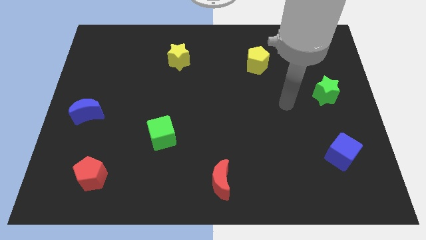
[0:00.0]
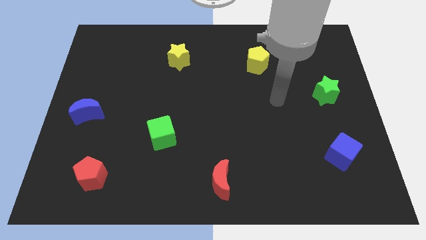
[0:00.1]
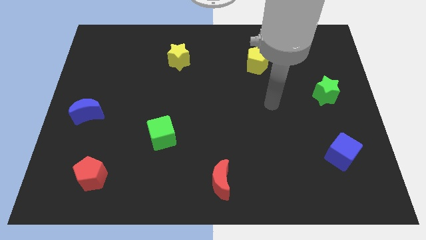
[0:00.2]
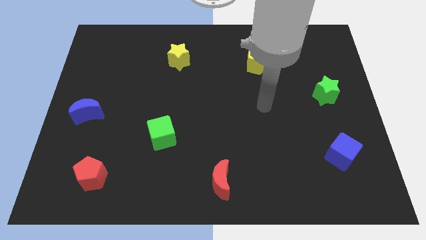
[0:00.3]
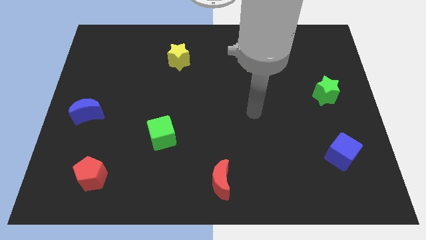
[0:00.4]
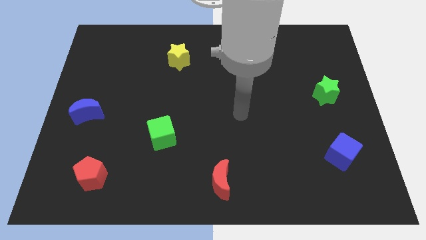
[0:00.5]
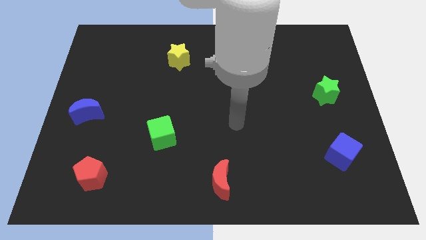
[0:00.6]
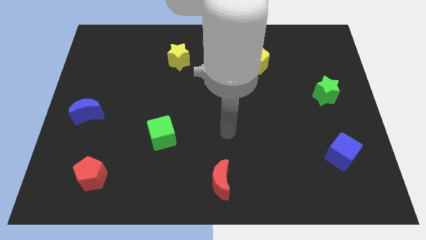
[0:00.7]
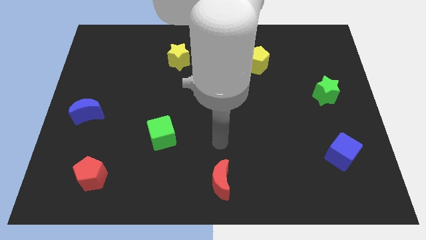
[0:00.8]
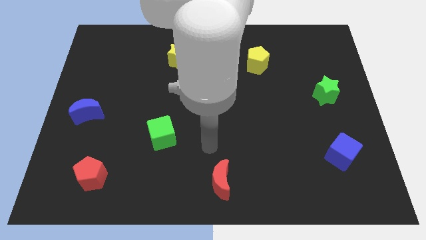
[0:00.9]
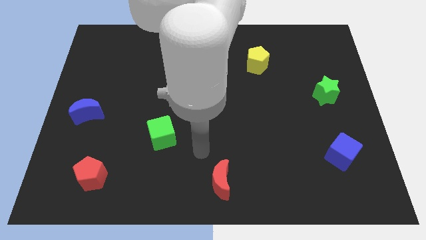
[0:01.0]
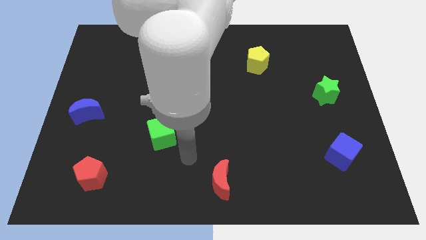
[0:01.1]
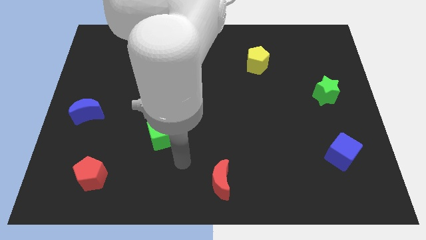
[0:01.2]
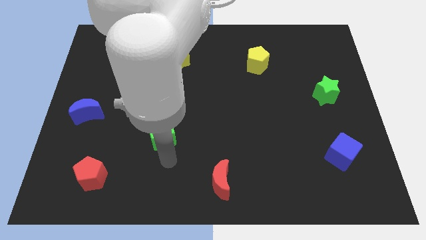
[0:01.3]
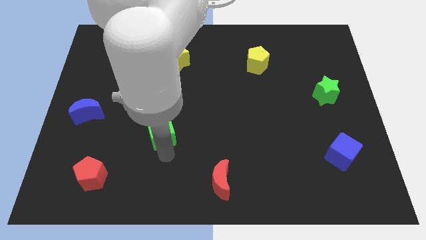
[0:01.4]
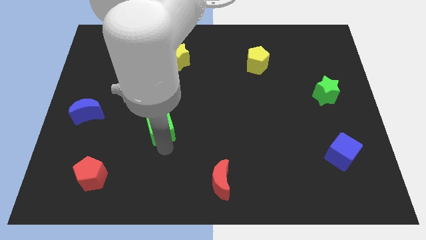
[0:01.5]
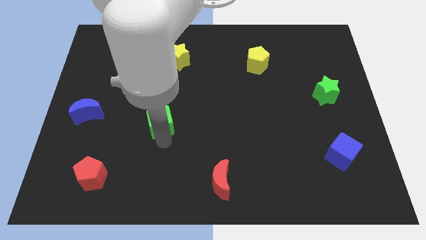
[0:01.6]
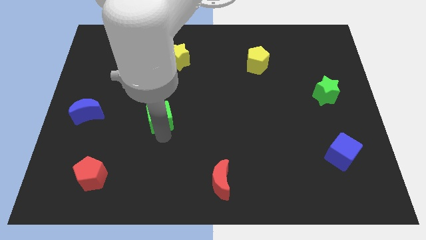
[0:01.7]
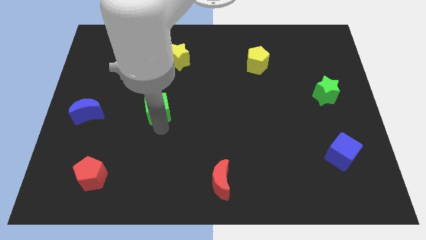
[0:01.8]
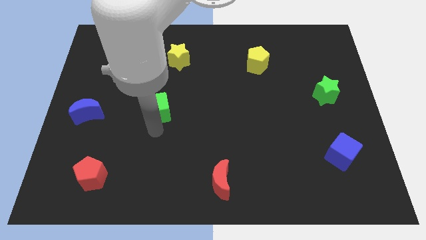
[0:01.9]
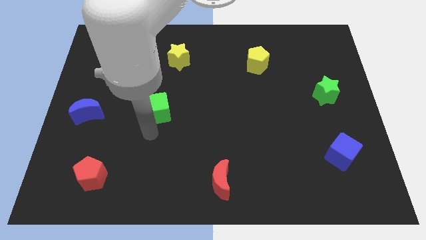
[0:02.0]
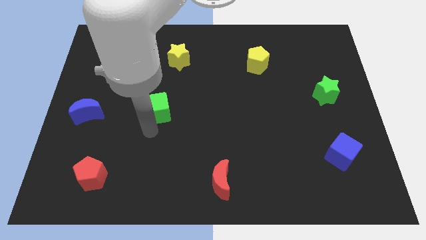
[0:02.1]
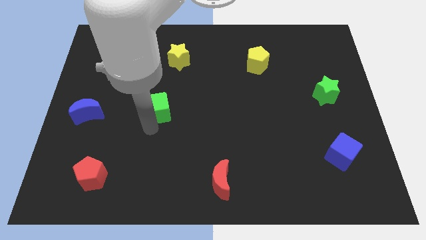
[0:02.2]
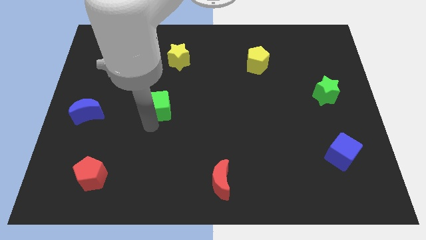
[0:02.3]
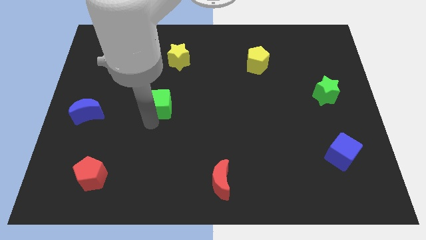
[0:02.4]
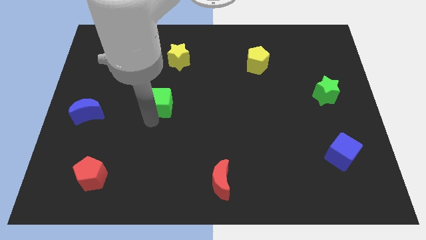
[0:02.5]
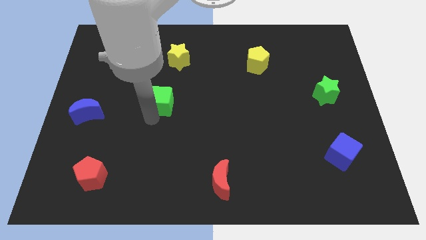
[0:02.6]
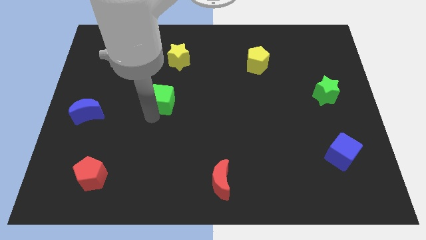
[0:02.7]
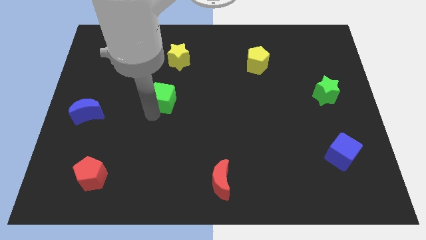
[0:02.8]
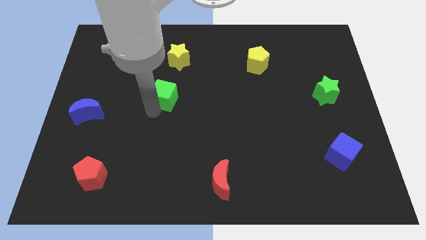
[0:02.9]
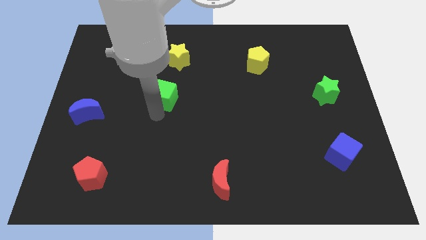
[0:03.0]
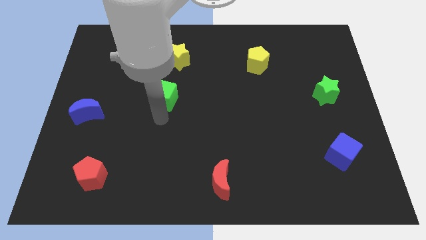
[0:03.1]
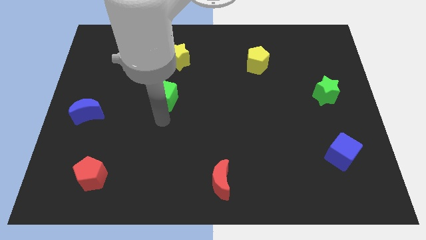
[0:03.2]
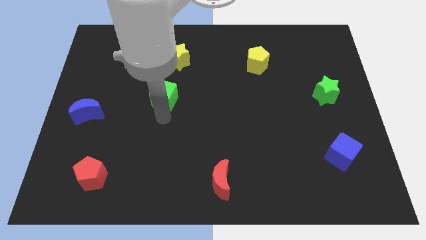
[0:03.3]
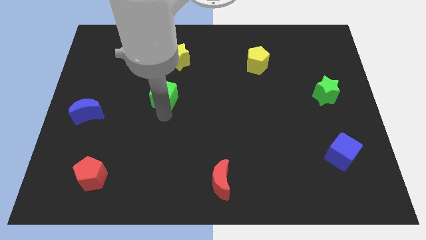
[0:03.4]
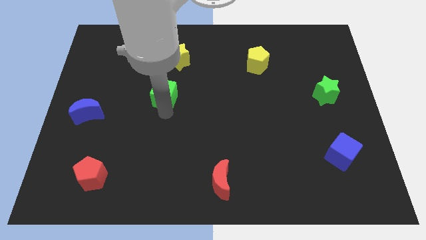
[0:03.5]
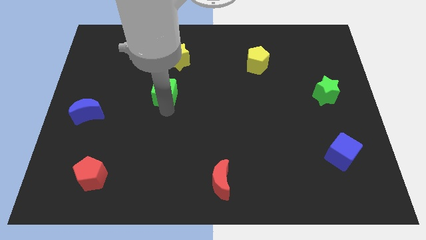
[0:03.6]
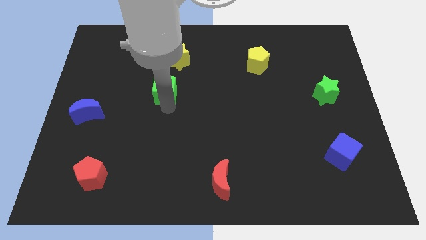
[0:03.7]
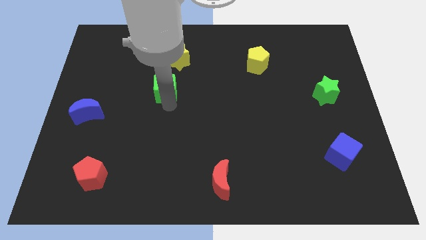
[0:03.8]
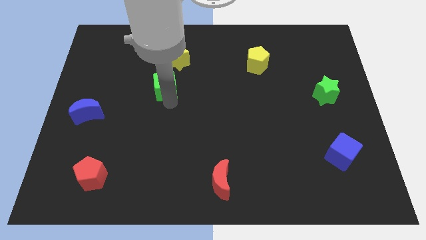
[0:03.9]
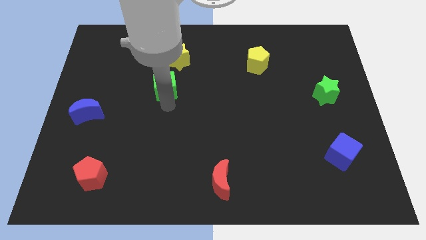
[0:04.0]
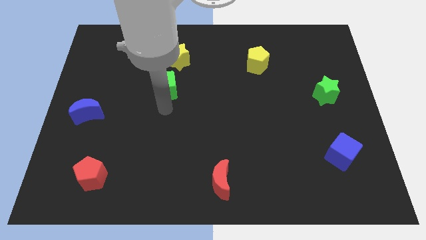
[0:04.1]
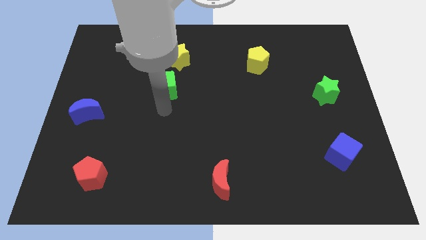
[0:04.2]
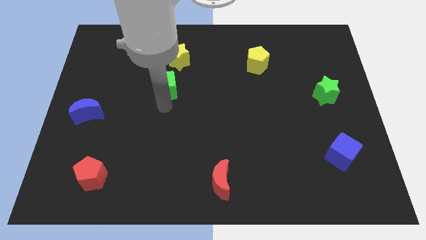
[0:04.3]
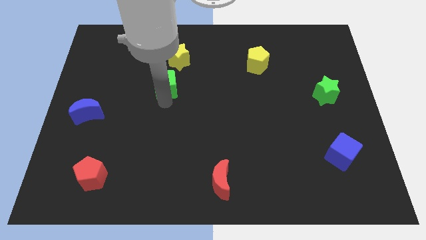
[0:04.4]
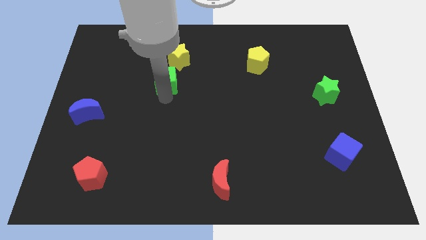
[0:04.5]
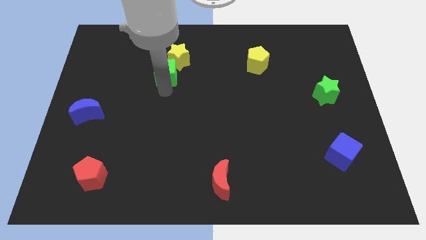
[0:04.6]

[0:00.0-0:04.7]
move the green cube towards the yellow star

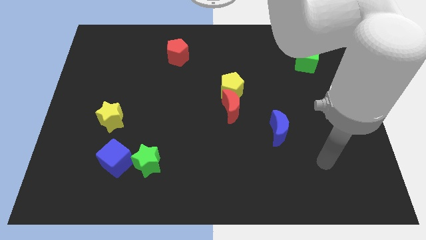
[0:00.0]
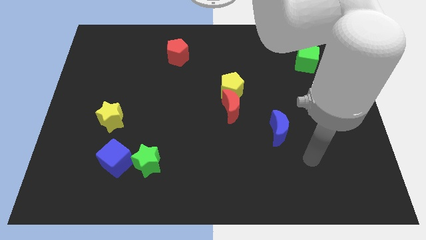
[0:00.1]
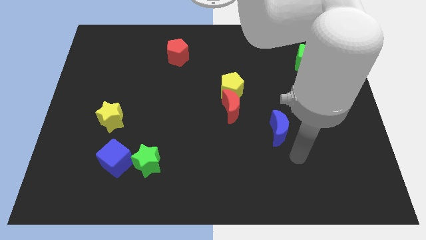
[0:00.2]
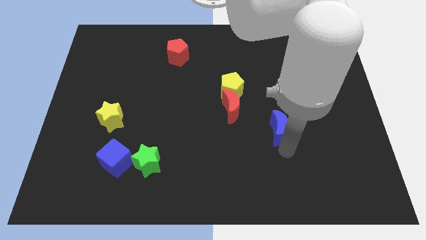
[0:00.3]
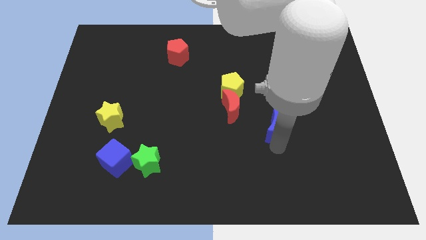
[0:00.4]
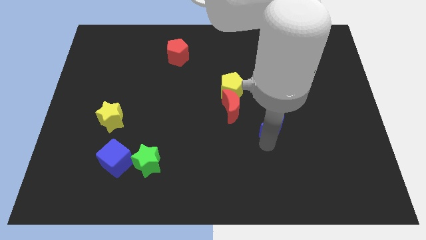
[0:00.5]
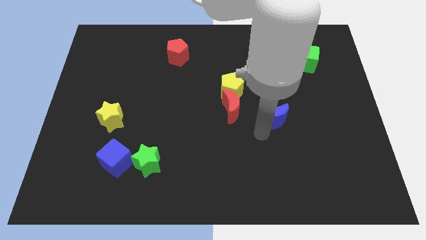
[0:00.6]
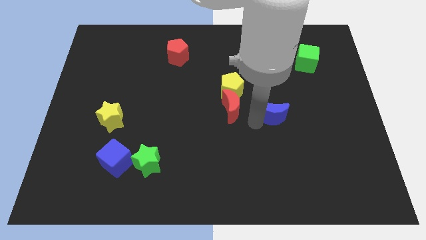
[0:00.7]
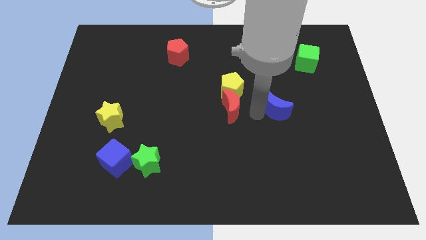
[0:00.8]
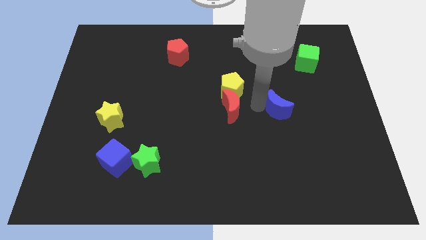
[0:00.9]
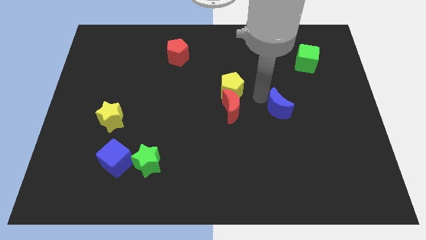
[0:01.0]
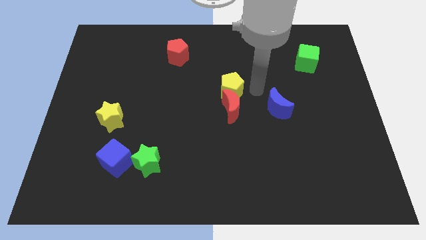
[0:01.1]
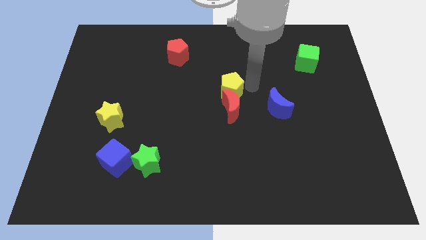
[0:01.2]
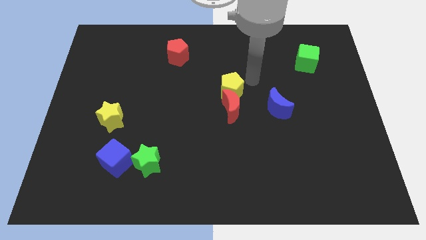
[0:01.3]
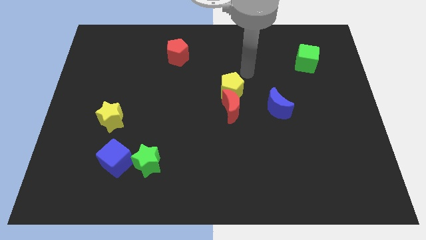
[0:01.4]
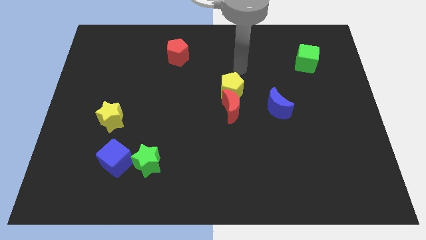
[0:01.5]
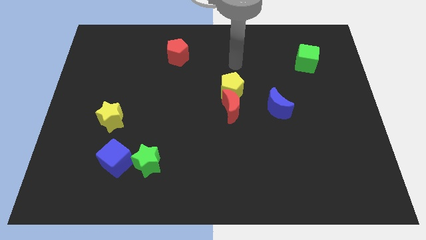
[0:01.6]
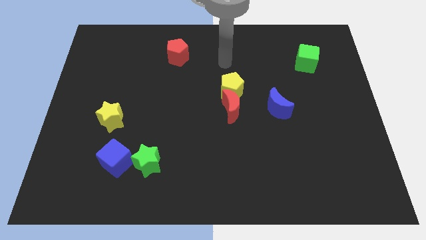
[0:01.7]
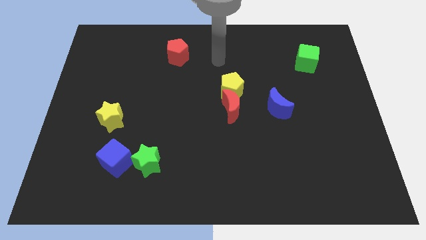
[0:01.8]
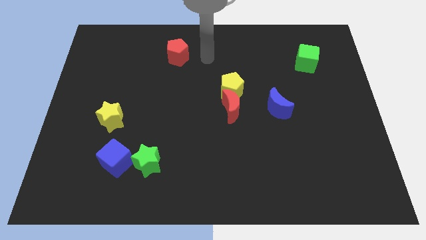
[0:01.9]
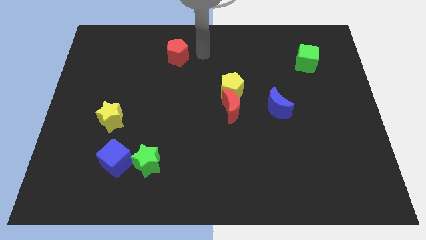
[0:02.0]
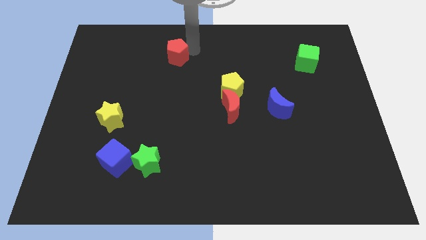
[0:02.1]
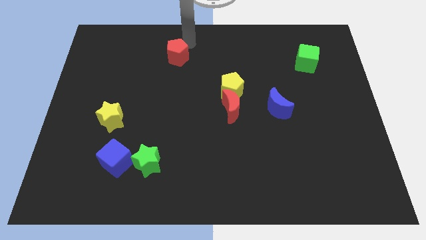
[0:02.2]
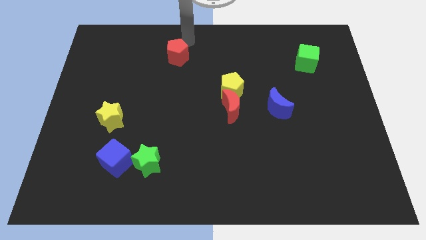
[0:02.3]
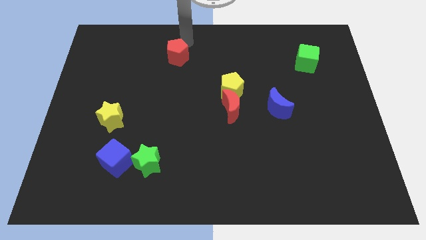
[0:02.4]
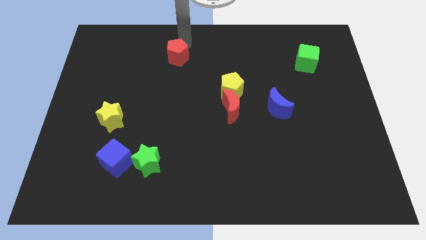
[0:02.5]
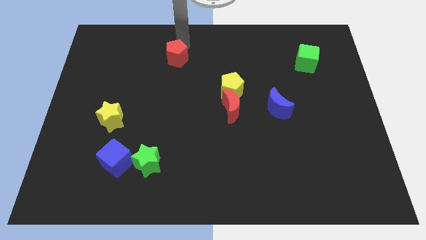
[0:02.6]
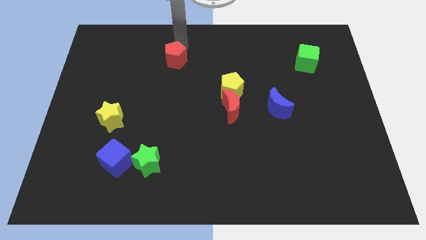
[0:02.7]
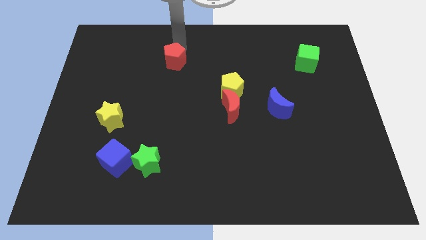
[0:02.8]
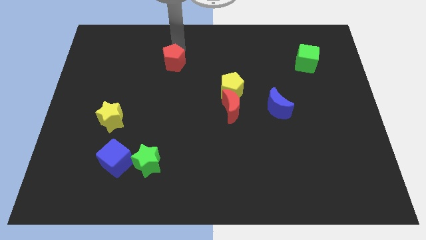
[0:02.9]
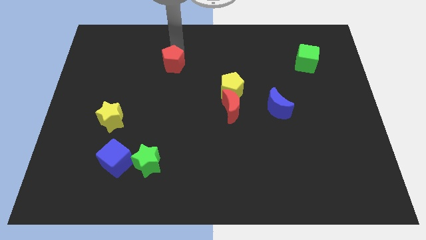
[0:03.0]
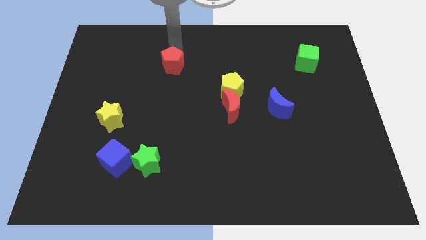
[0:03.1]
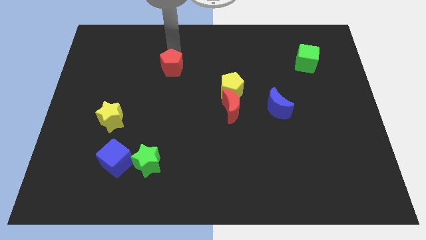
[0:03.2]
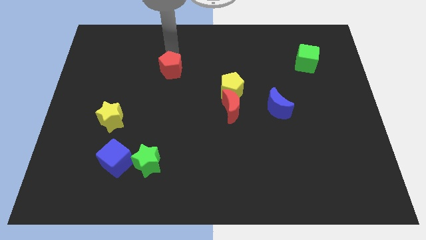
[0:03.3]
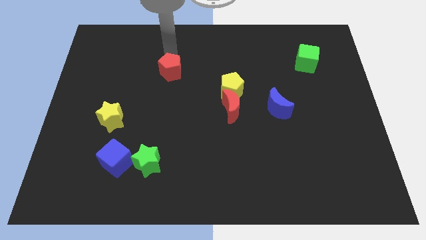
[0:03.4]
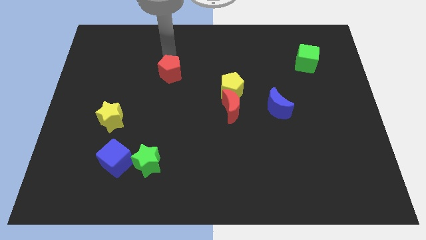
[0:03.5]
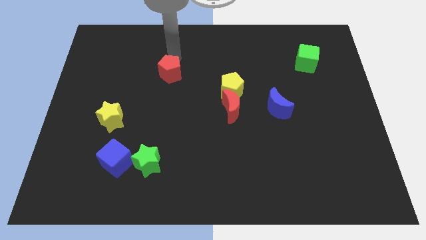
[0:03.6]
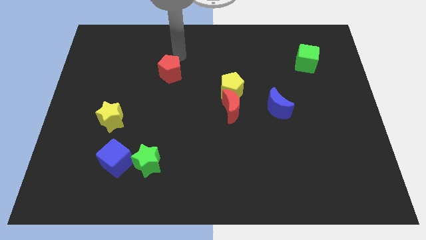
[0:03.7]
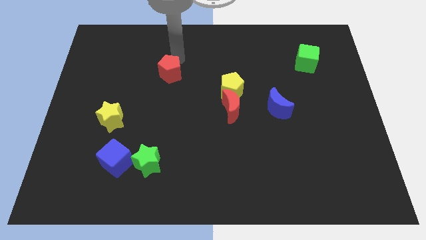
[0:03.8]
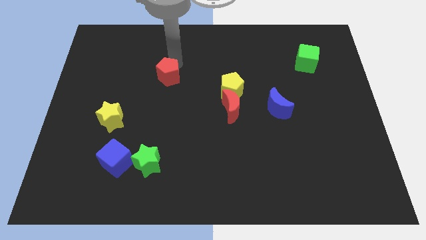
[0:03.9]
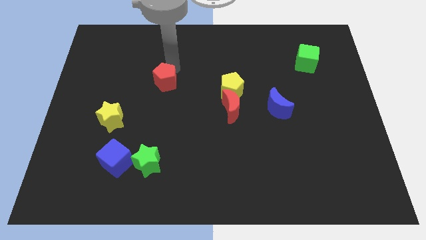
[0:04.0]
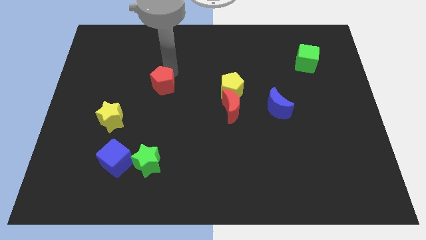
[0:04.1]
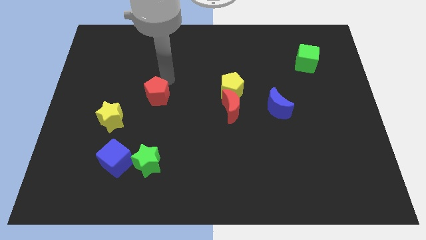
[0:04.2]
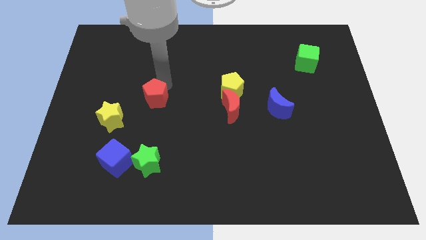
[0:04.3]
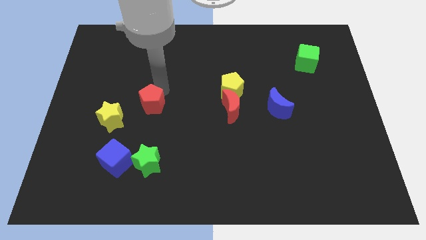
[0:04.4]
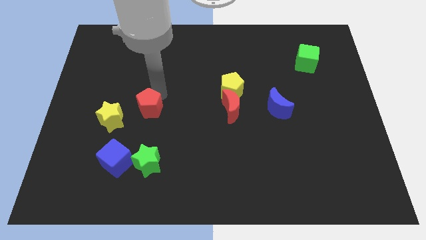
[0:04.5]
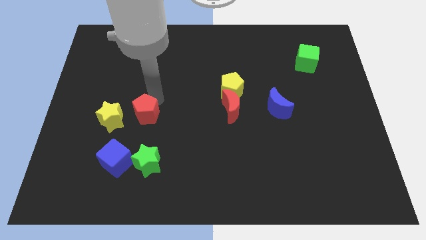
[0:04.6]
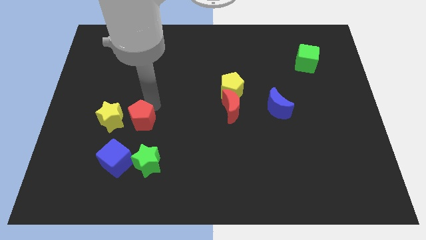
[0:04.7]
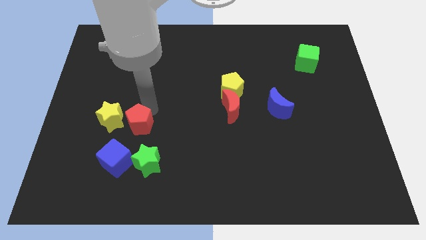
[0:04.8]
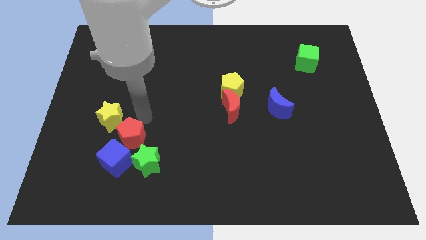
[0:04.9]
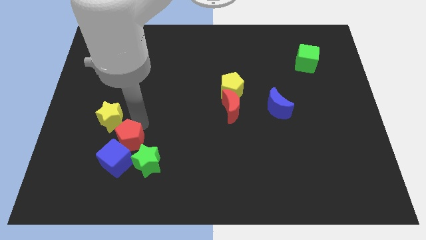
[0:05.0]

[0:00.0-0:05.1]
put the red pentagon next to the blue cube
